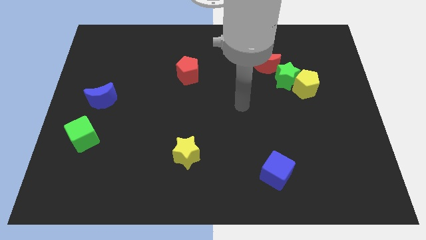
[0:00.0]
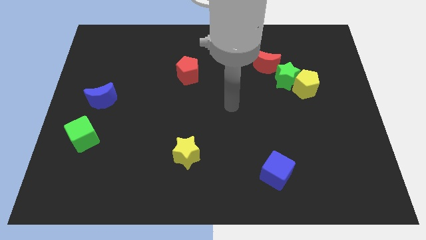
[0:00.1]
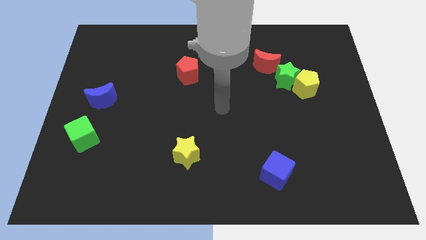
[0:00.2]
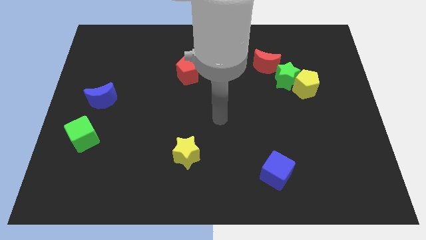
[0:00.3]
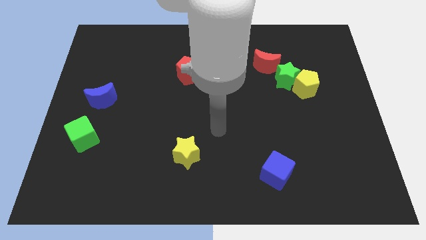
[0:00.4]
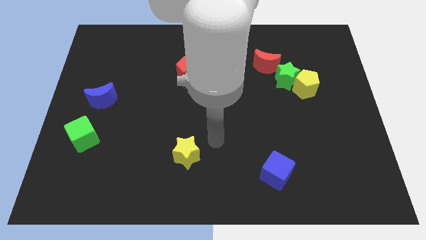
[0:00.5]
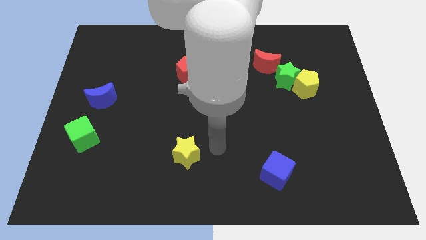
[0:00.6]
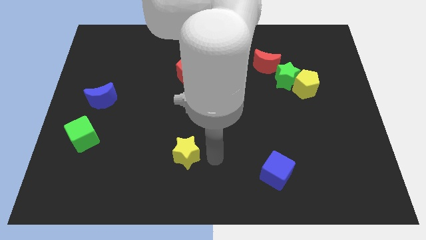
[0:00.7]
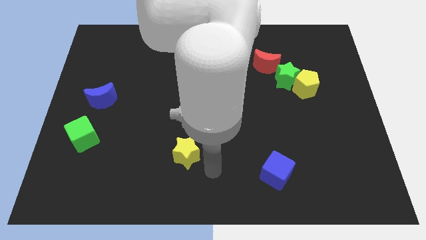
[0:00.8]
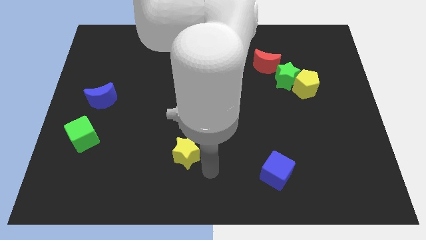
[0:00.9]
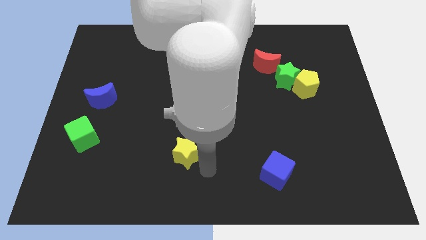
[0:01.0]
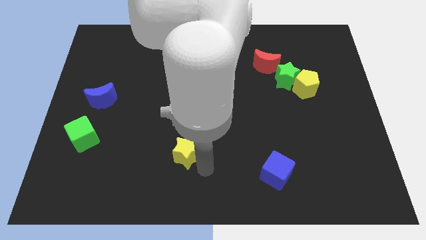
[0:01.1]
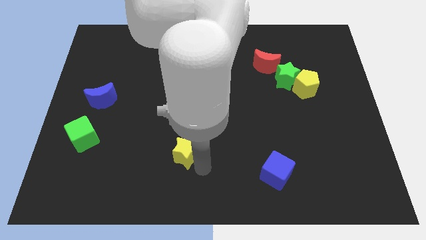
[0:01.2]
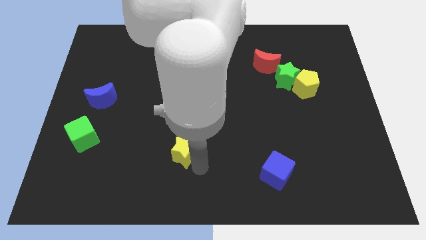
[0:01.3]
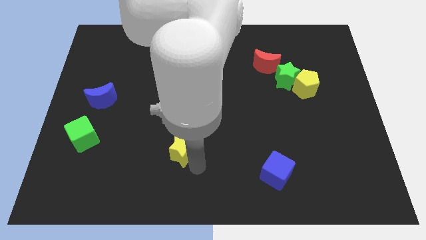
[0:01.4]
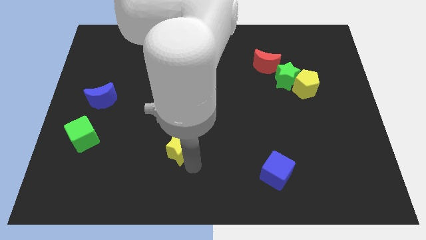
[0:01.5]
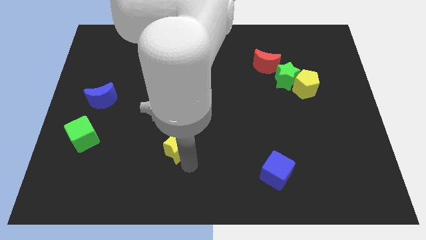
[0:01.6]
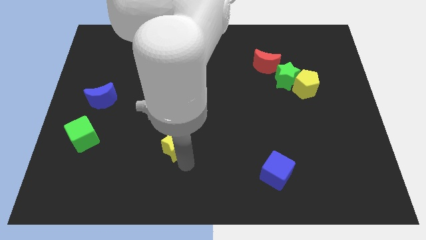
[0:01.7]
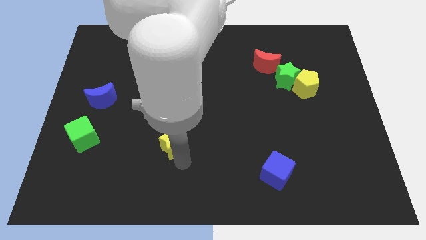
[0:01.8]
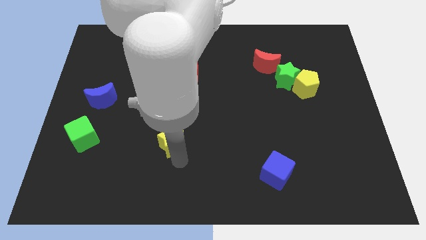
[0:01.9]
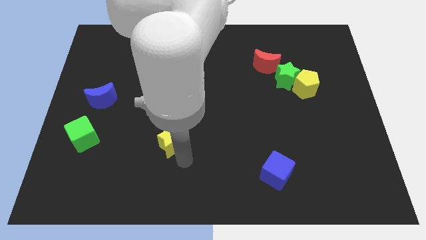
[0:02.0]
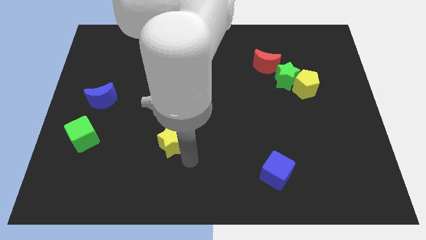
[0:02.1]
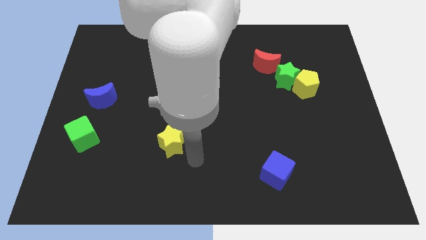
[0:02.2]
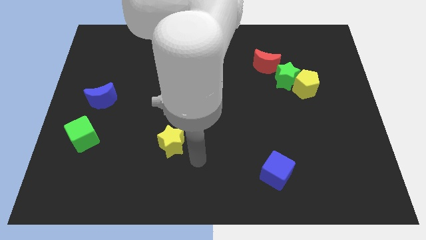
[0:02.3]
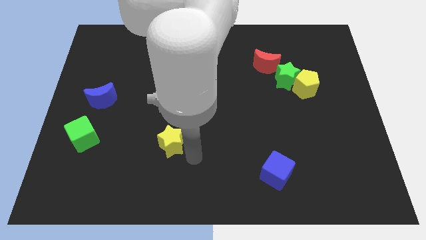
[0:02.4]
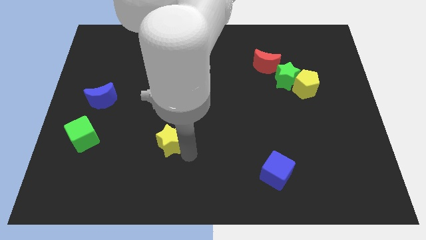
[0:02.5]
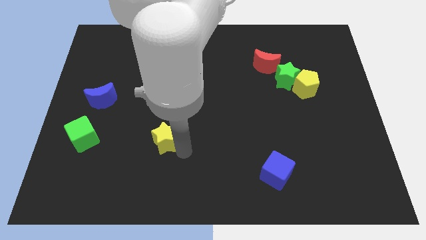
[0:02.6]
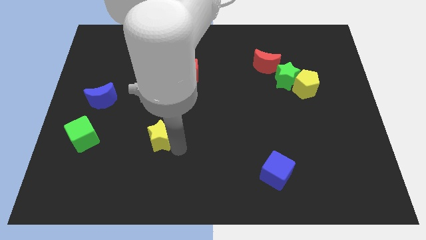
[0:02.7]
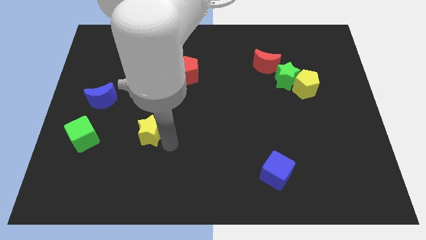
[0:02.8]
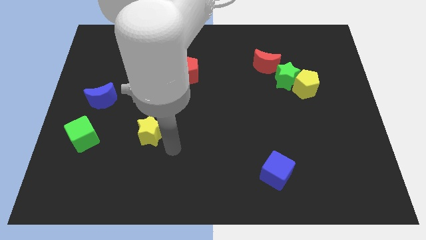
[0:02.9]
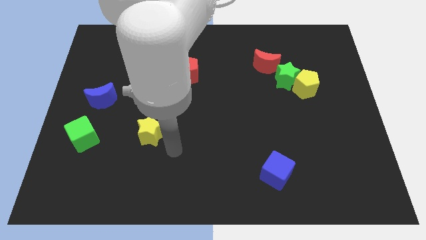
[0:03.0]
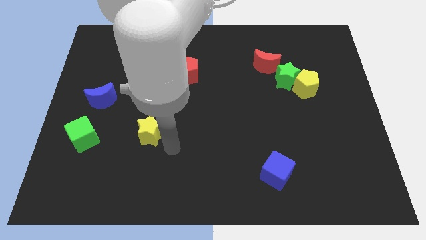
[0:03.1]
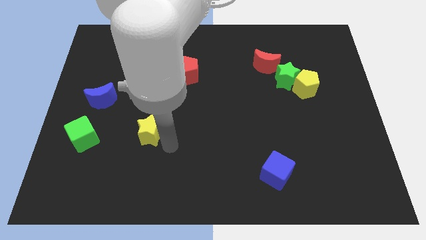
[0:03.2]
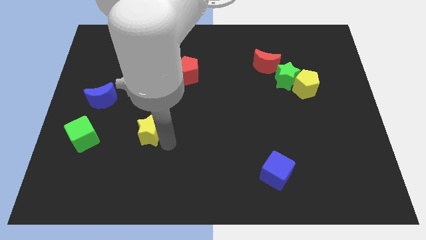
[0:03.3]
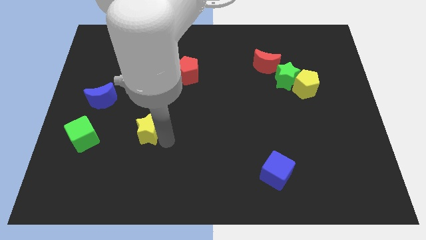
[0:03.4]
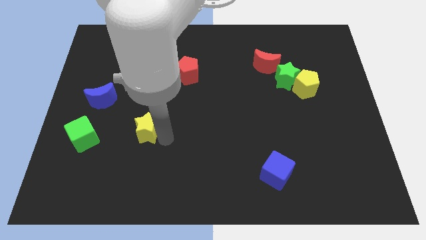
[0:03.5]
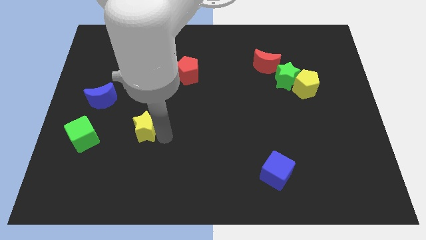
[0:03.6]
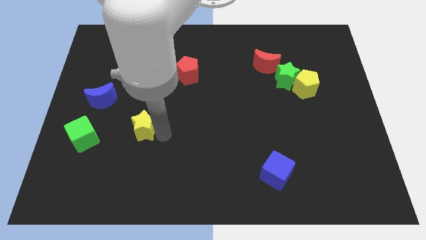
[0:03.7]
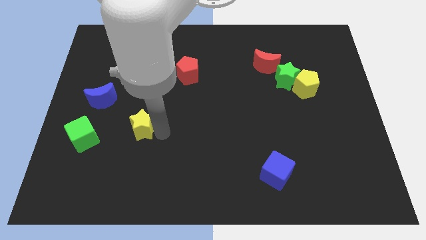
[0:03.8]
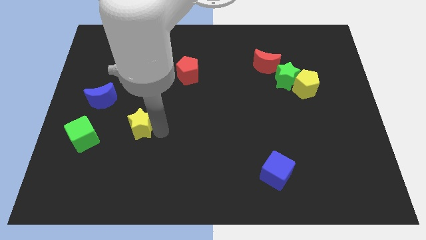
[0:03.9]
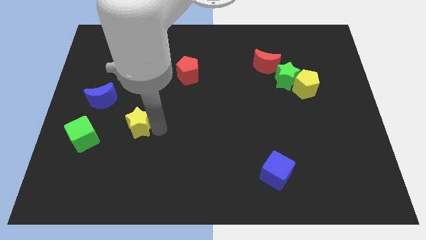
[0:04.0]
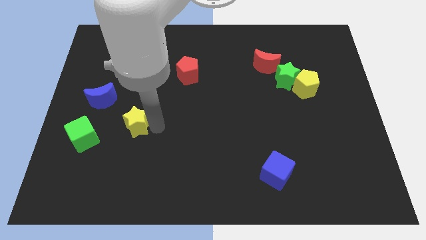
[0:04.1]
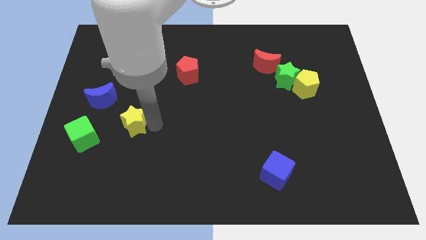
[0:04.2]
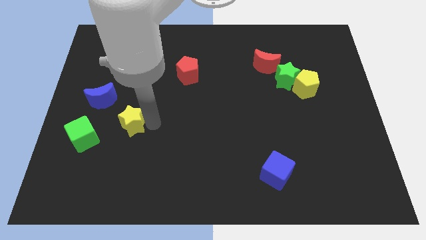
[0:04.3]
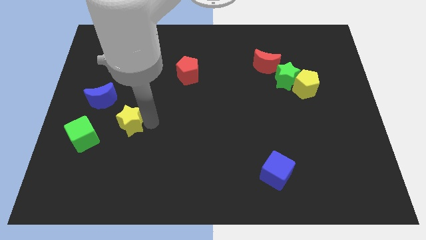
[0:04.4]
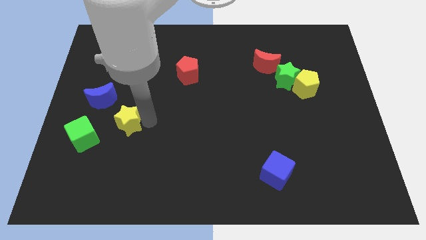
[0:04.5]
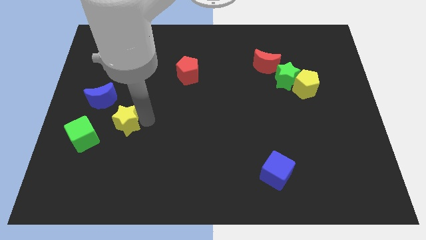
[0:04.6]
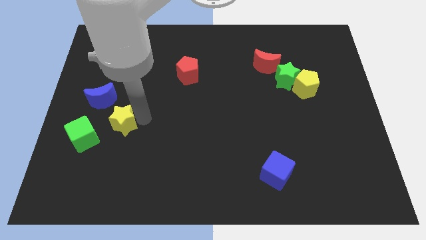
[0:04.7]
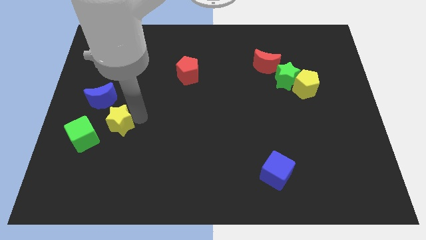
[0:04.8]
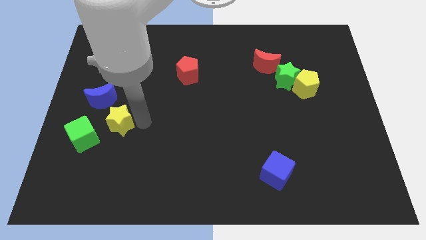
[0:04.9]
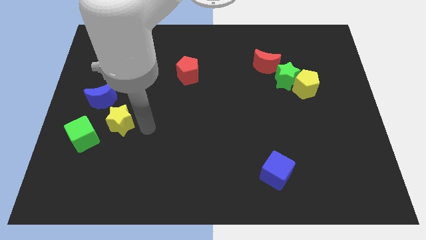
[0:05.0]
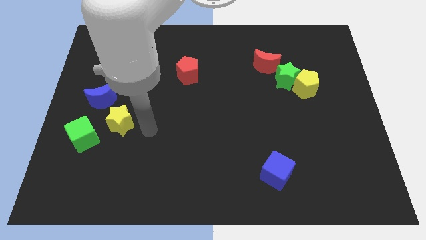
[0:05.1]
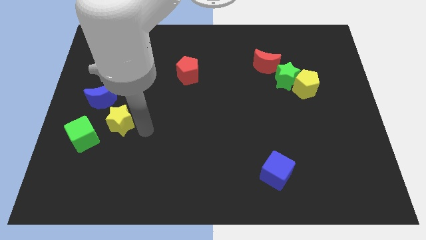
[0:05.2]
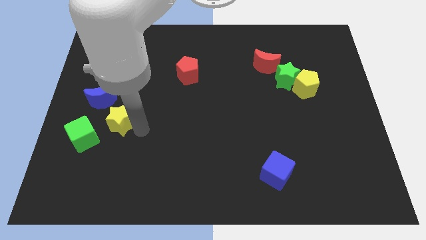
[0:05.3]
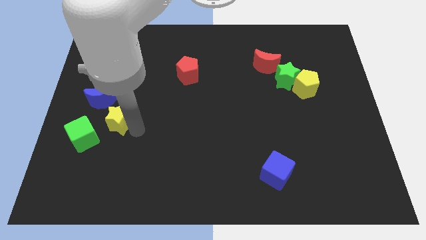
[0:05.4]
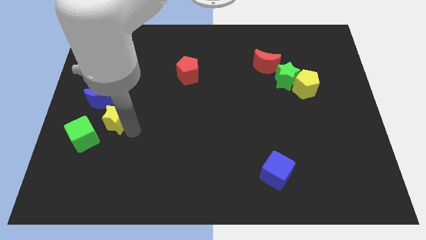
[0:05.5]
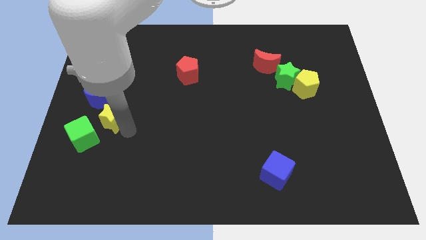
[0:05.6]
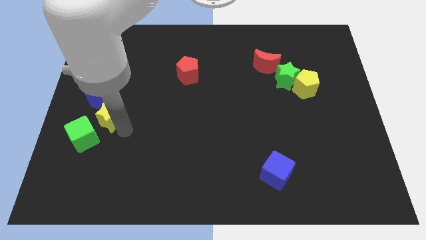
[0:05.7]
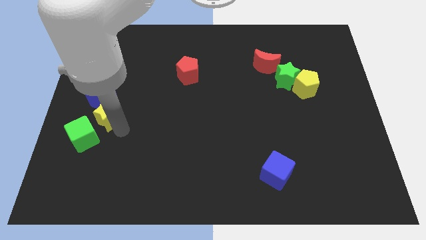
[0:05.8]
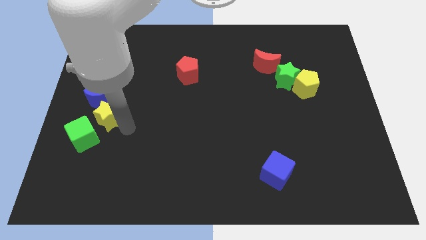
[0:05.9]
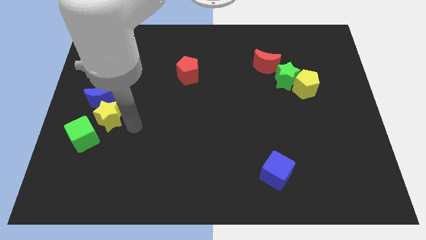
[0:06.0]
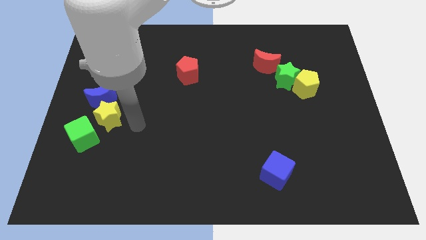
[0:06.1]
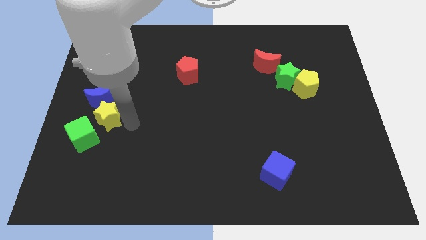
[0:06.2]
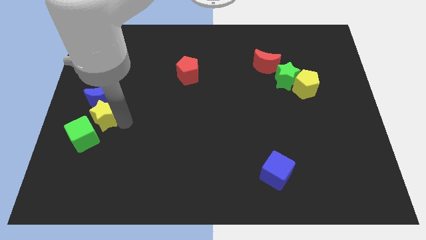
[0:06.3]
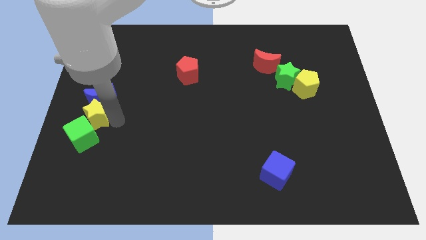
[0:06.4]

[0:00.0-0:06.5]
move the yellow star to the center left
